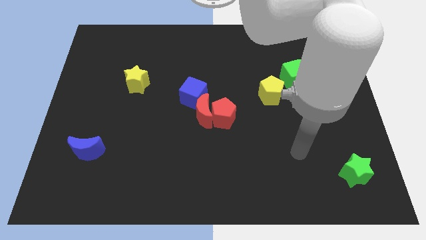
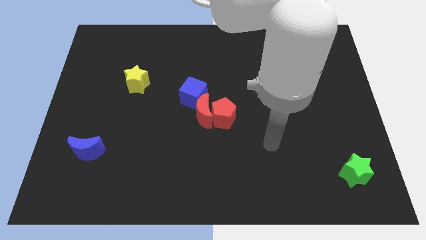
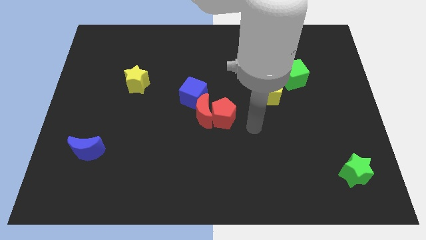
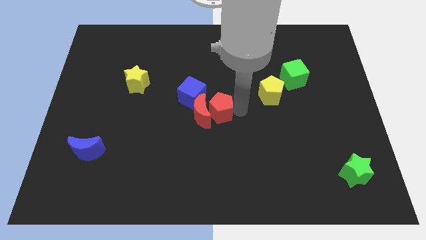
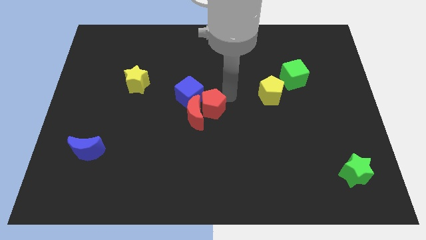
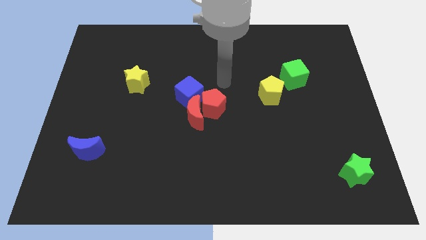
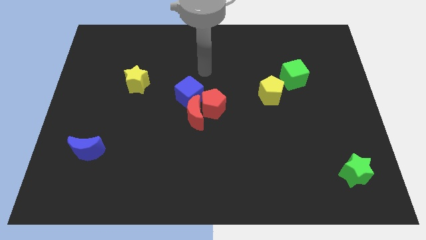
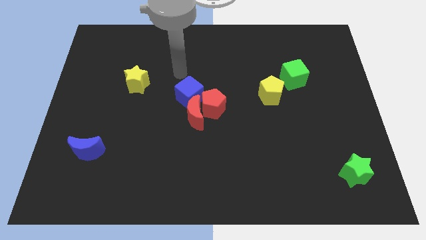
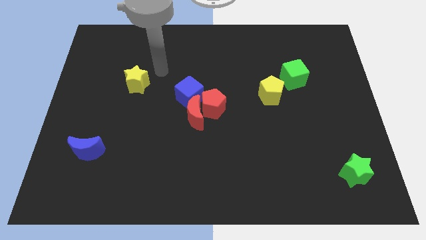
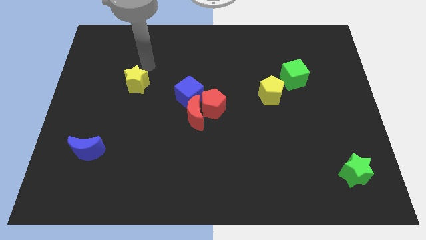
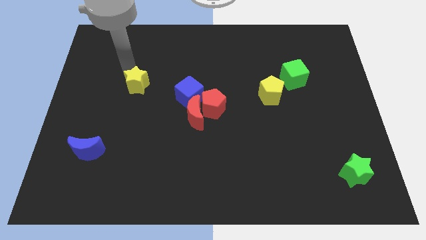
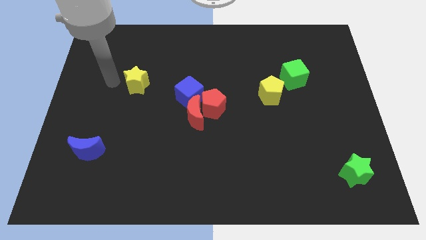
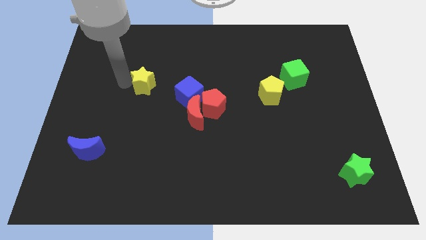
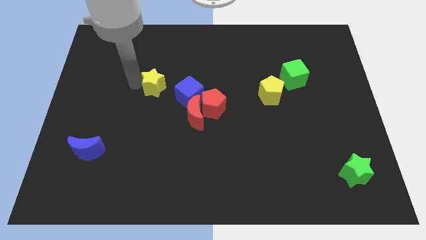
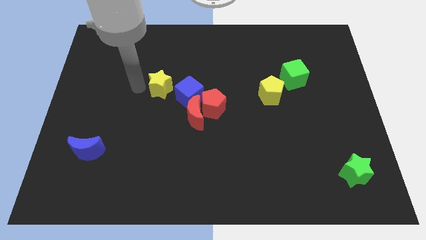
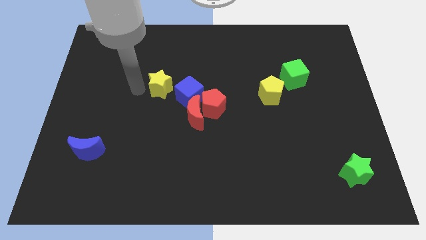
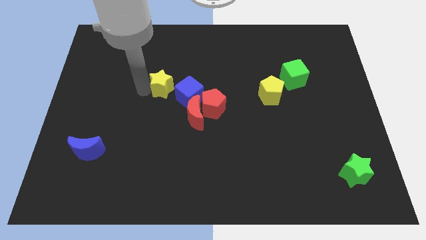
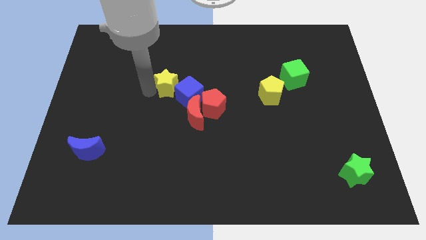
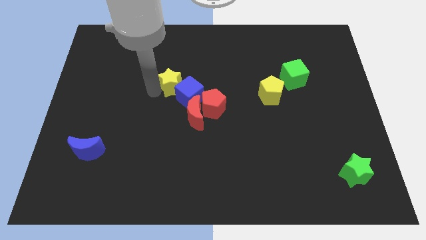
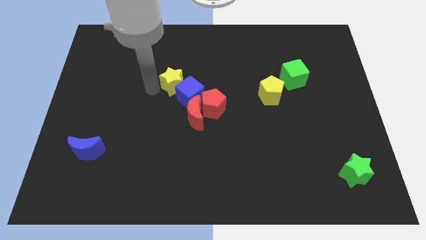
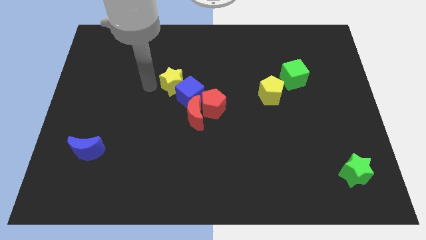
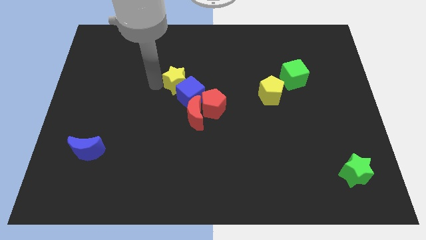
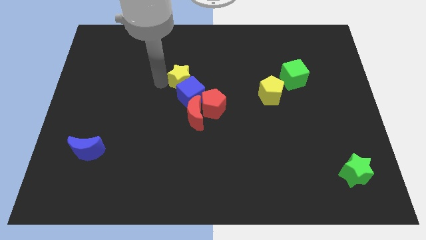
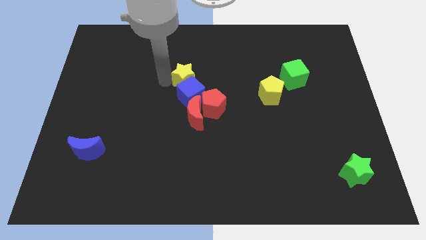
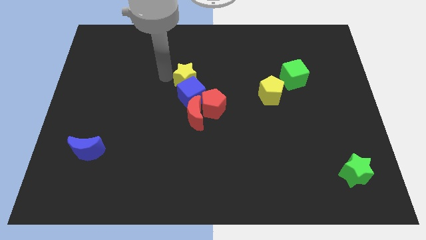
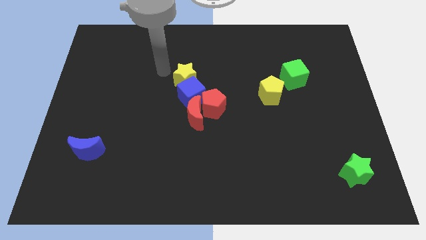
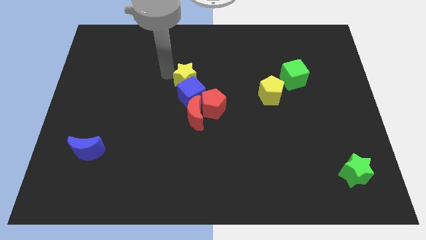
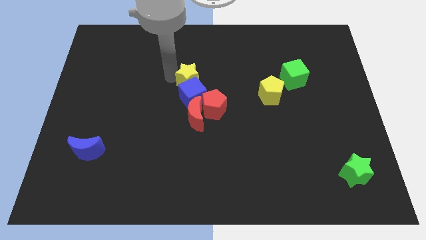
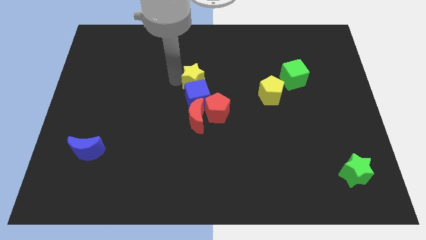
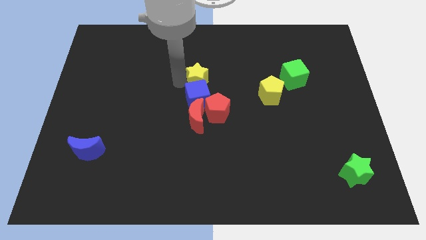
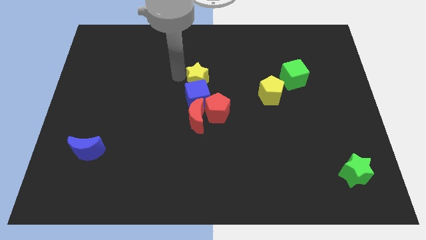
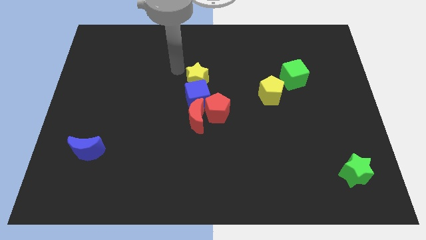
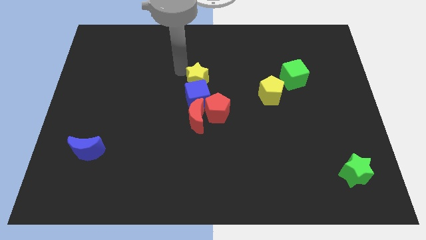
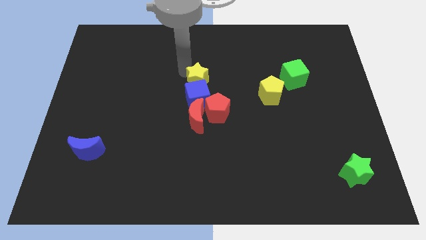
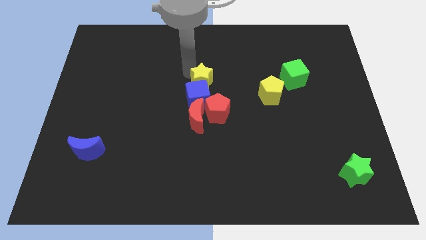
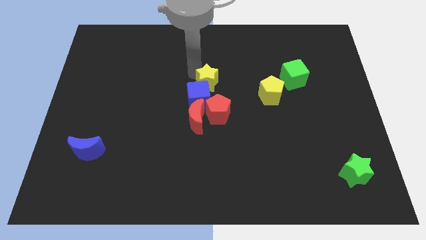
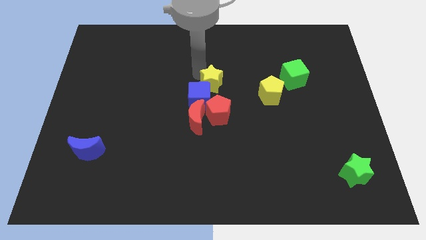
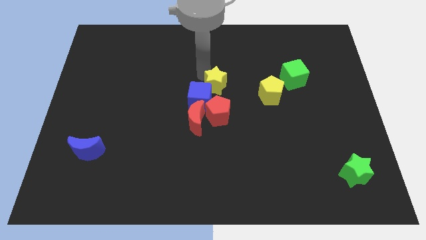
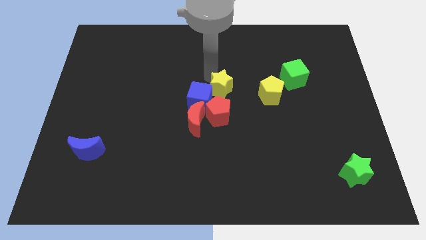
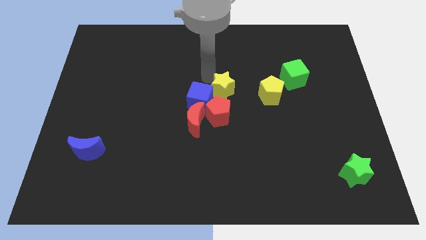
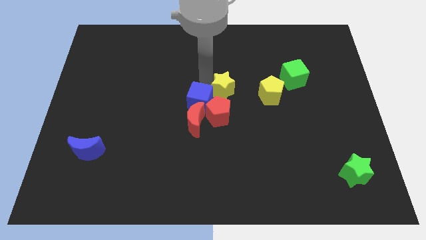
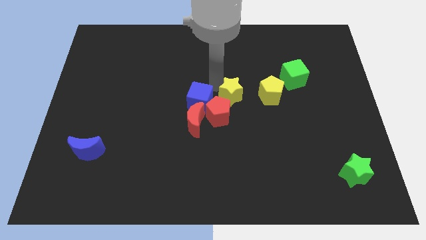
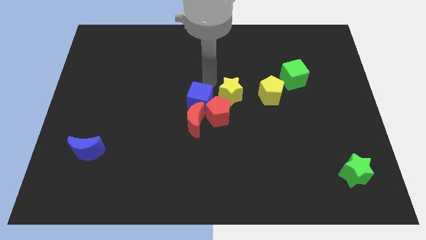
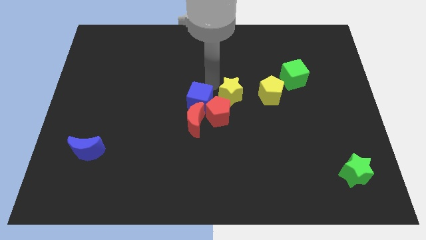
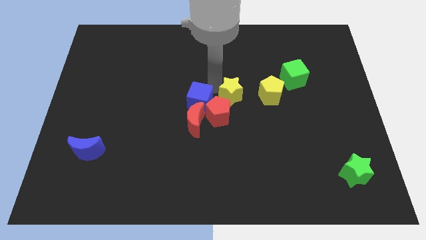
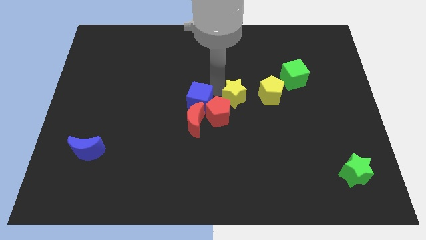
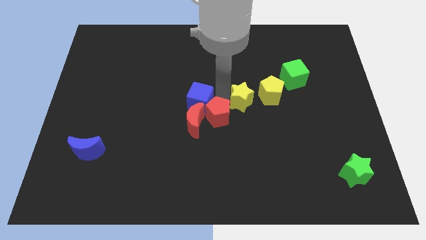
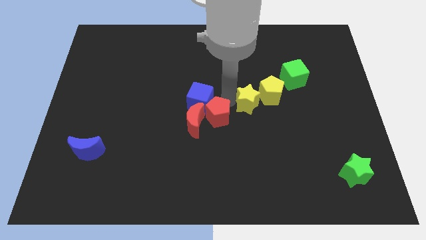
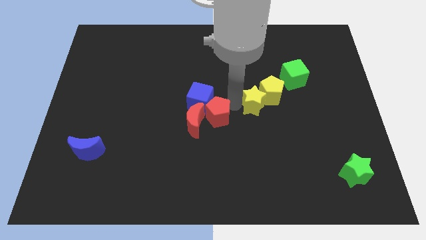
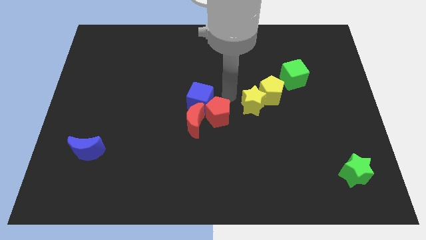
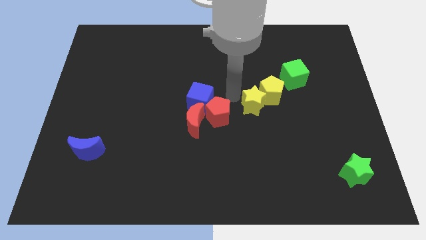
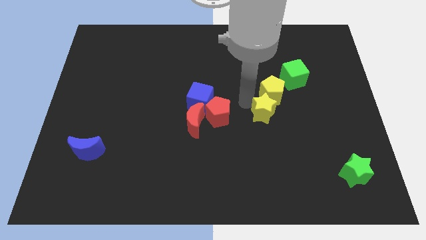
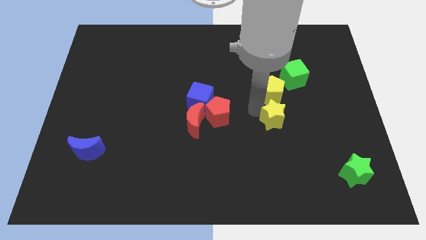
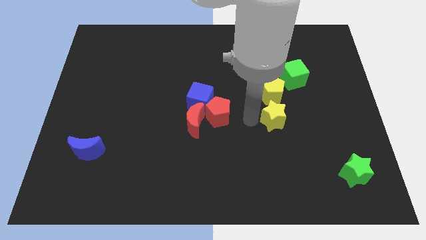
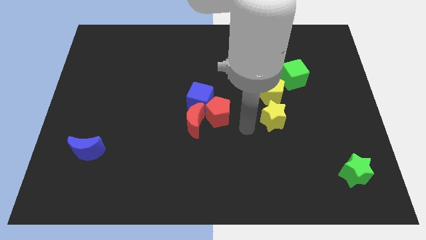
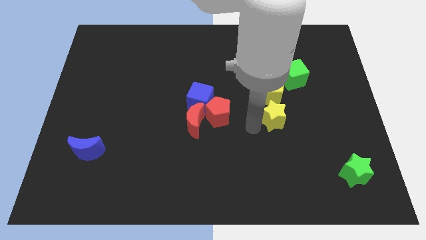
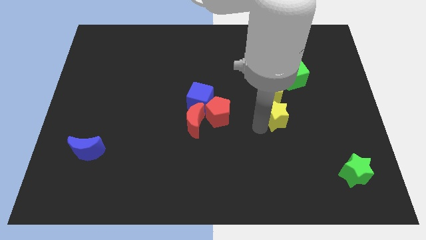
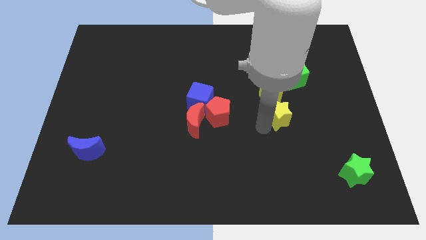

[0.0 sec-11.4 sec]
push the yellow star to the bottom right side of the yellow pentagon

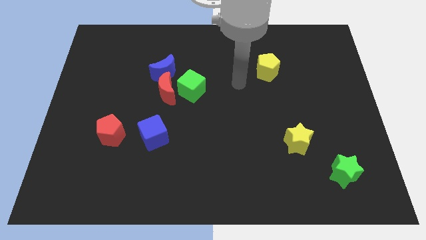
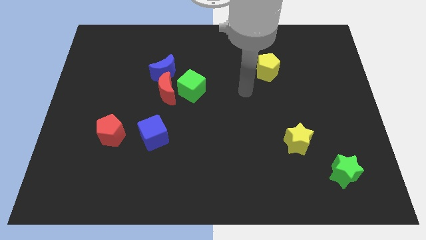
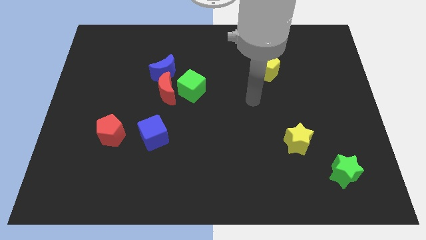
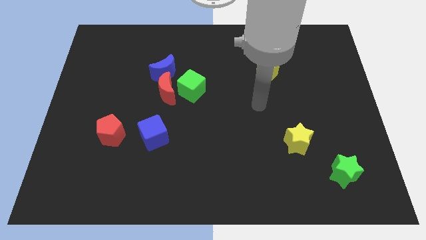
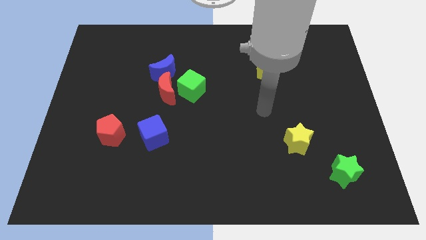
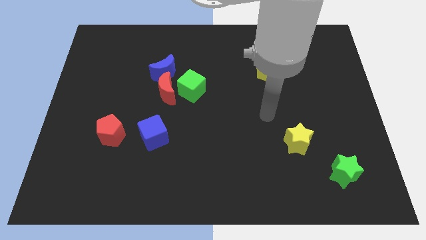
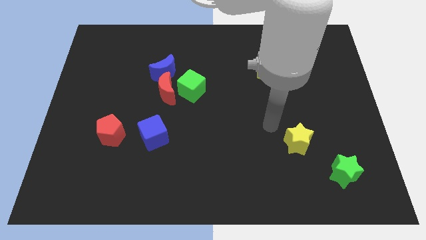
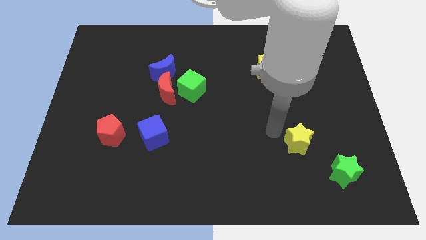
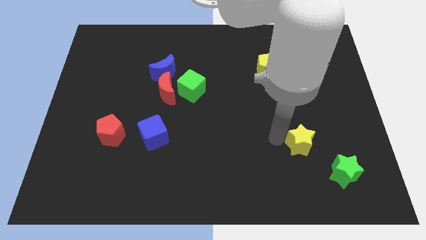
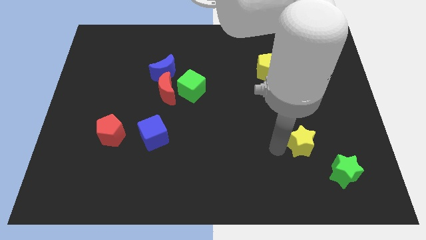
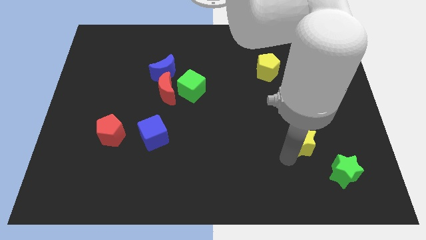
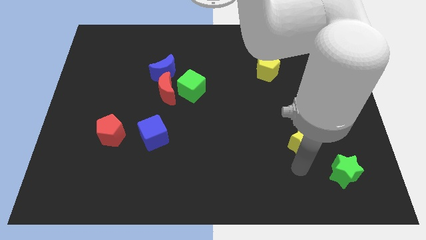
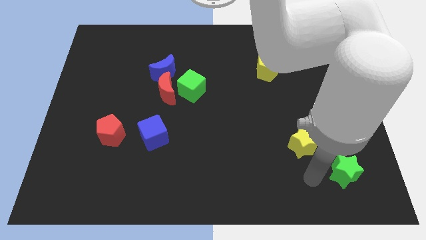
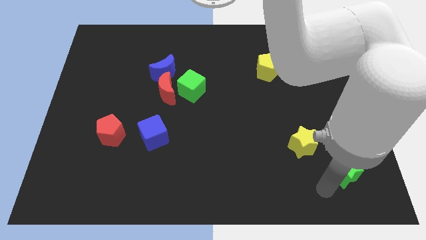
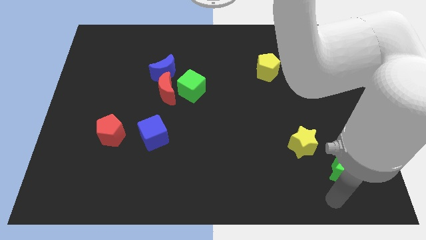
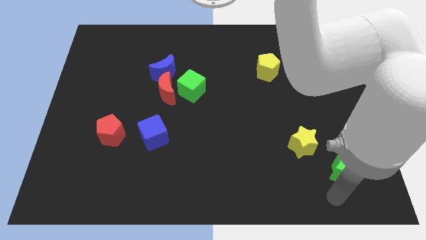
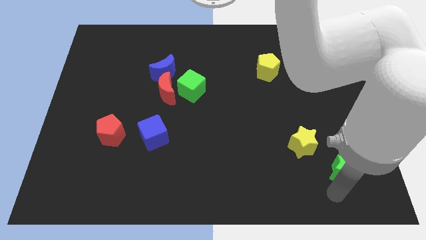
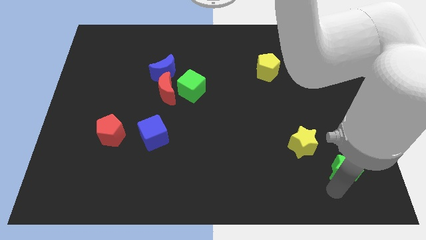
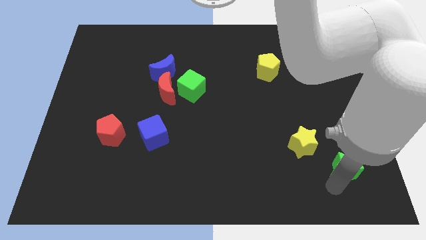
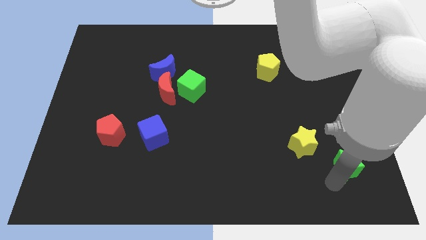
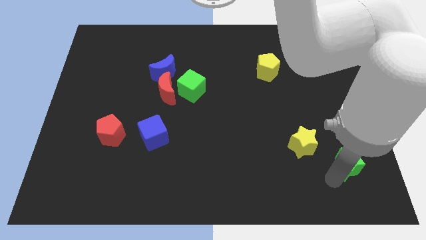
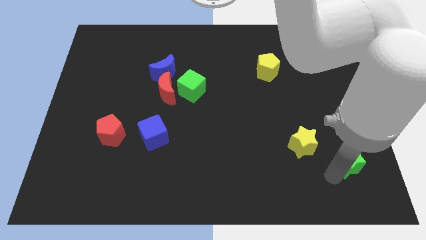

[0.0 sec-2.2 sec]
push the green star to the right of the yellow star
